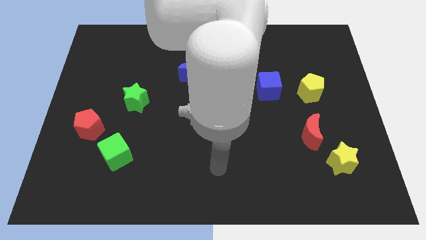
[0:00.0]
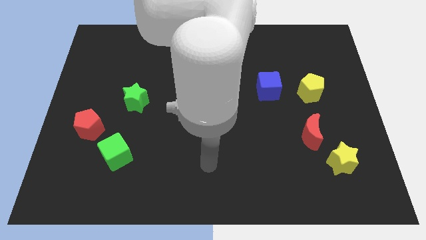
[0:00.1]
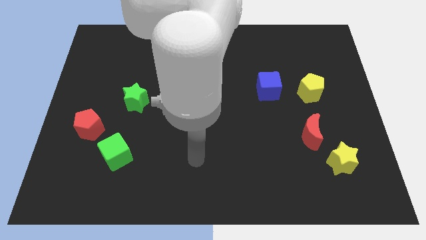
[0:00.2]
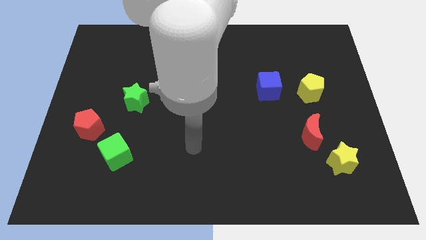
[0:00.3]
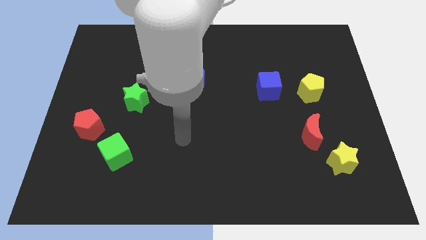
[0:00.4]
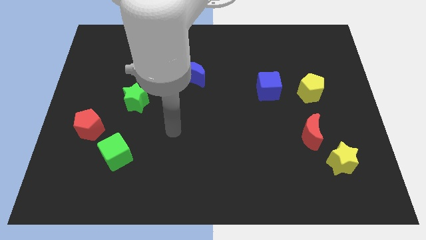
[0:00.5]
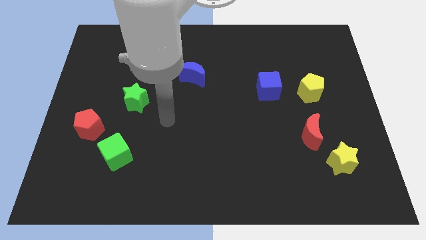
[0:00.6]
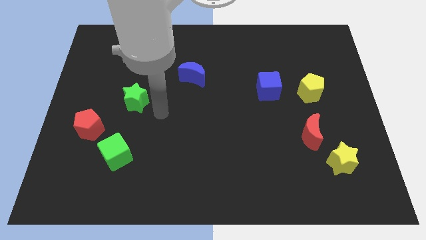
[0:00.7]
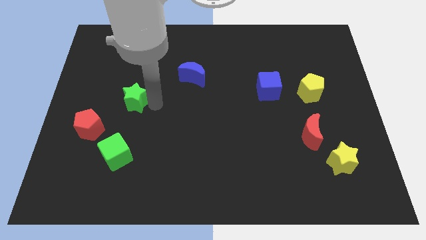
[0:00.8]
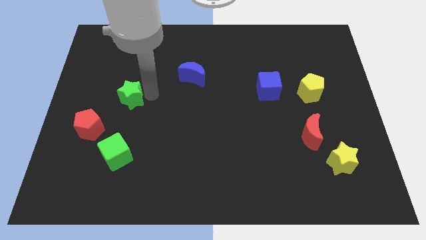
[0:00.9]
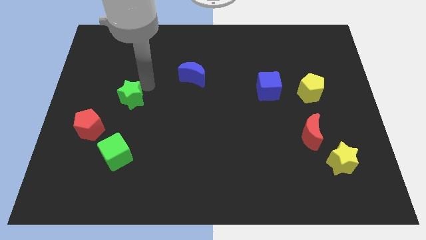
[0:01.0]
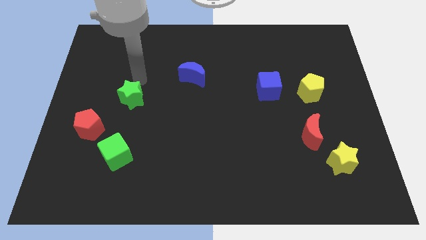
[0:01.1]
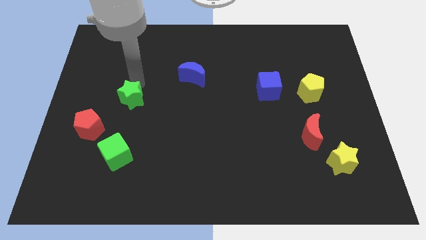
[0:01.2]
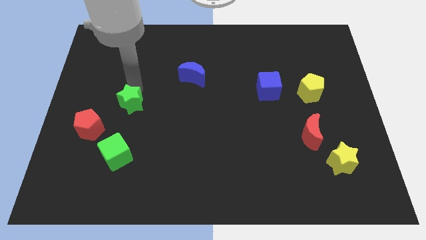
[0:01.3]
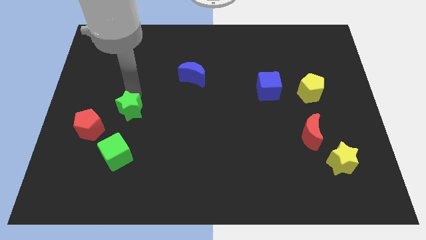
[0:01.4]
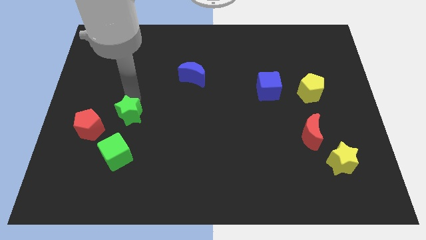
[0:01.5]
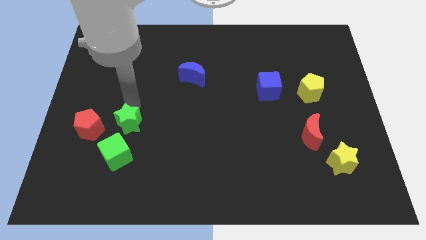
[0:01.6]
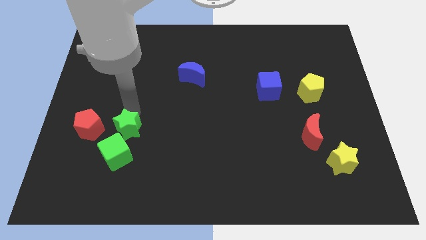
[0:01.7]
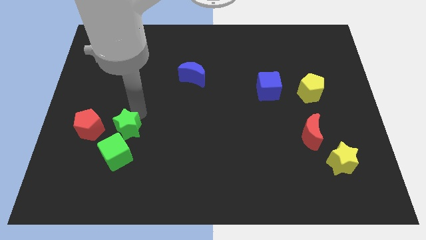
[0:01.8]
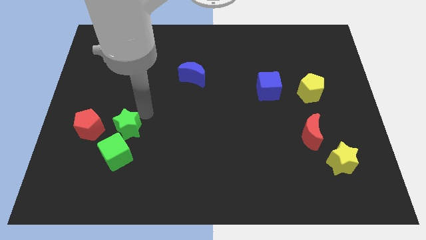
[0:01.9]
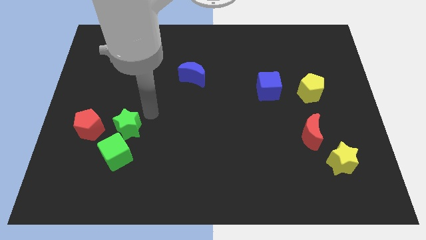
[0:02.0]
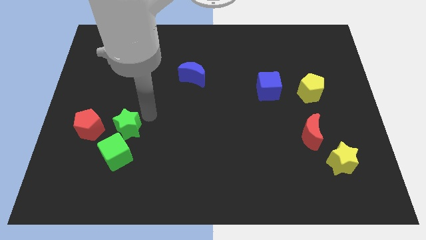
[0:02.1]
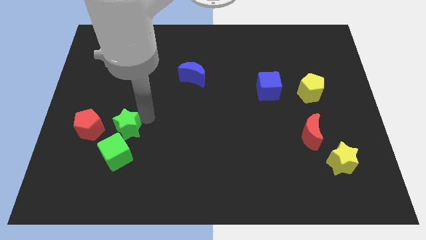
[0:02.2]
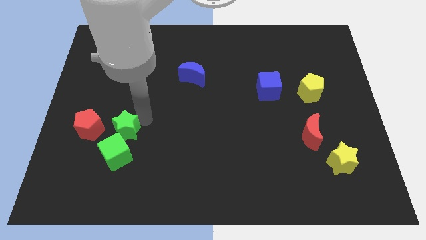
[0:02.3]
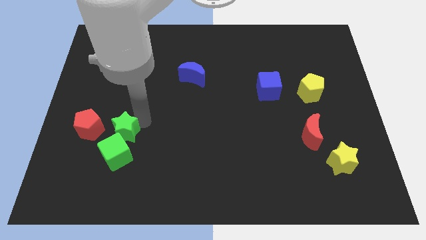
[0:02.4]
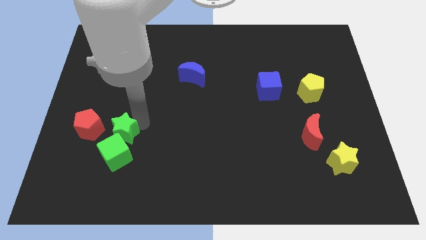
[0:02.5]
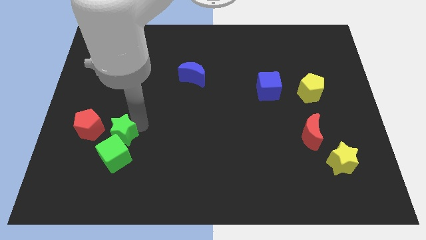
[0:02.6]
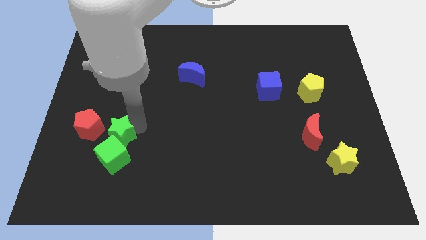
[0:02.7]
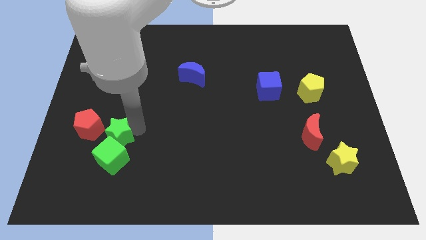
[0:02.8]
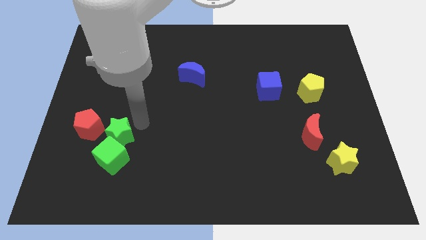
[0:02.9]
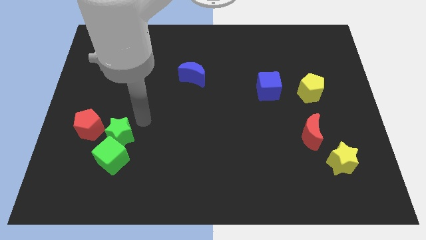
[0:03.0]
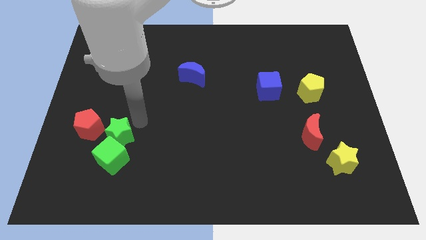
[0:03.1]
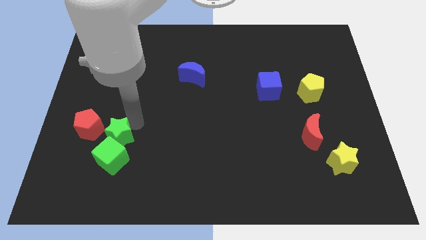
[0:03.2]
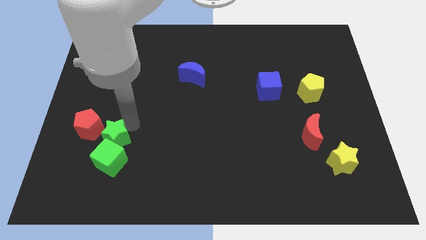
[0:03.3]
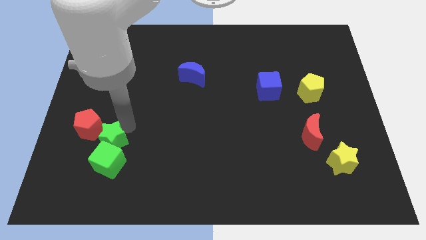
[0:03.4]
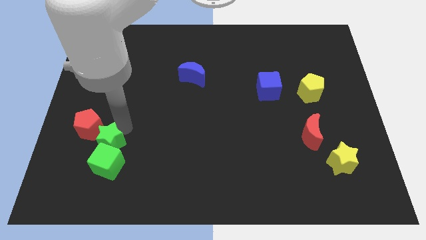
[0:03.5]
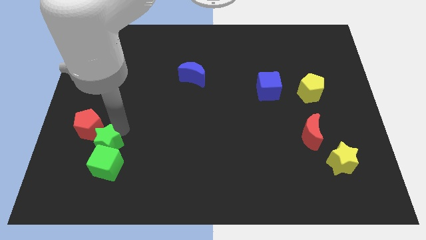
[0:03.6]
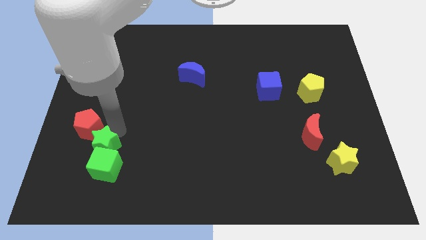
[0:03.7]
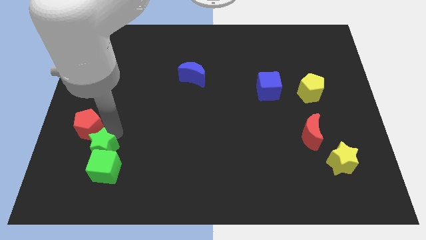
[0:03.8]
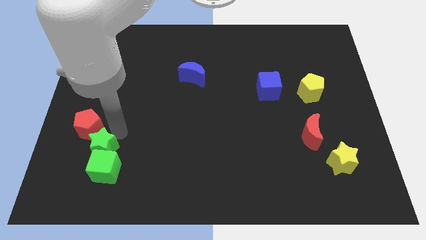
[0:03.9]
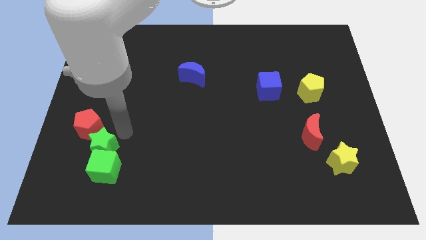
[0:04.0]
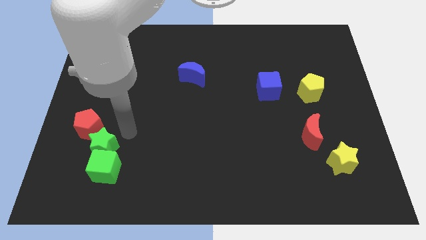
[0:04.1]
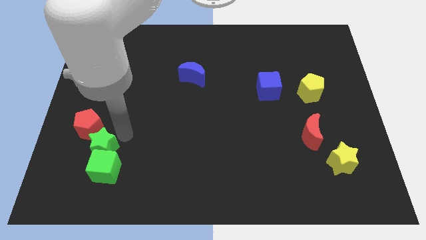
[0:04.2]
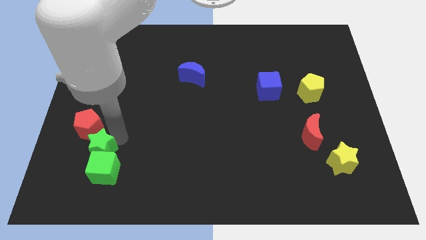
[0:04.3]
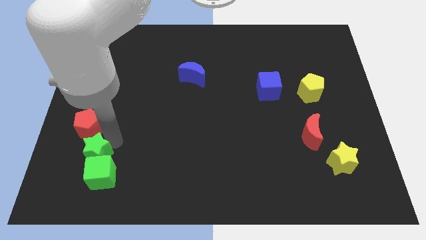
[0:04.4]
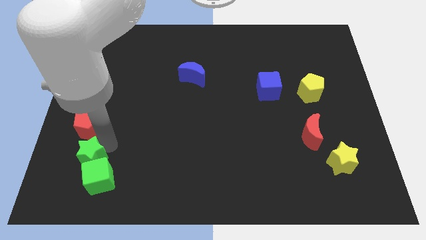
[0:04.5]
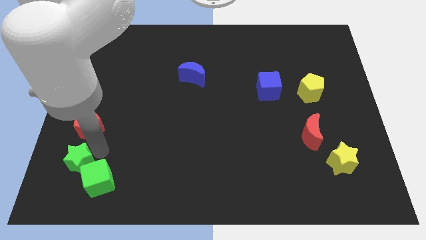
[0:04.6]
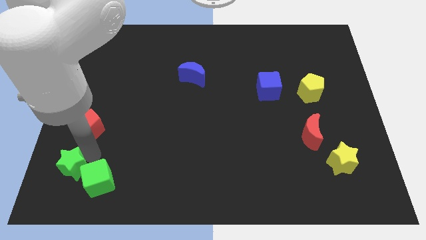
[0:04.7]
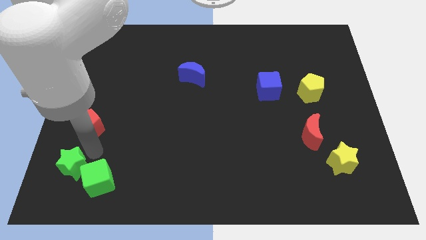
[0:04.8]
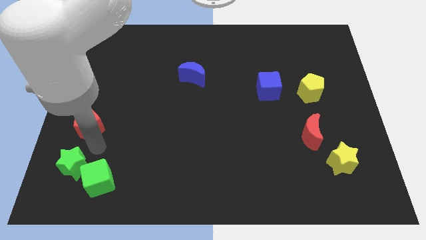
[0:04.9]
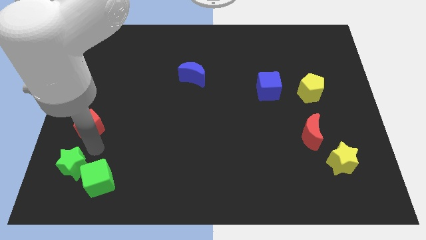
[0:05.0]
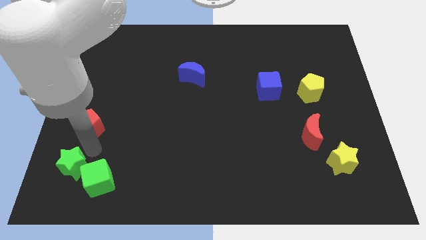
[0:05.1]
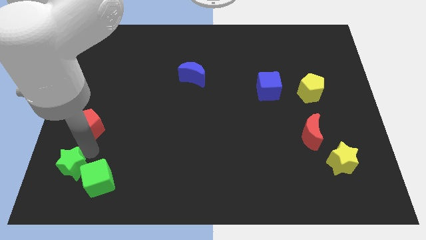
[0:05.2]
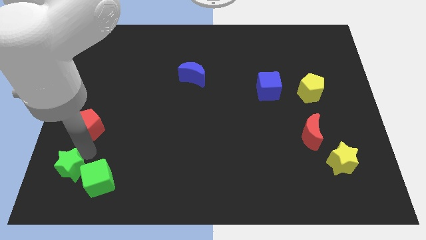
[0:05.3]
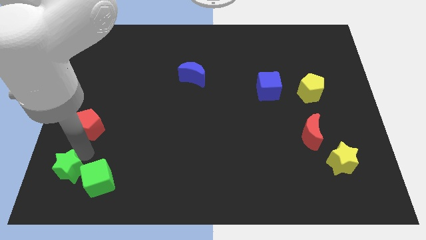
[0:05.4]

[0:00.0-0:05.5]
push the green star to the bottom left corner
